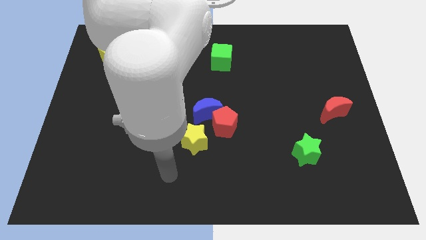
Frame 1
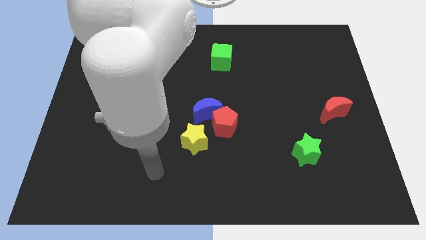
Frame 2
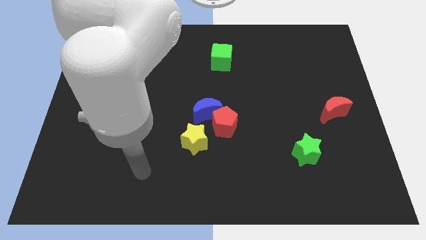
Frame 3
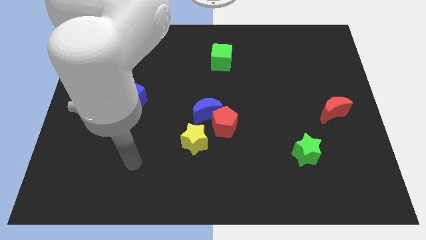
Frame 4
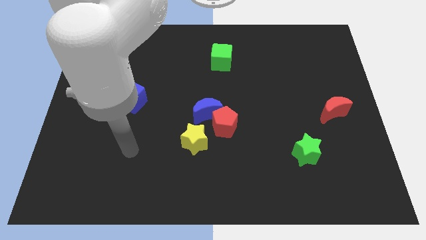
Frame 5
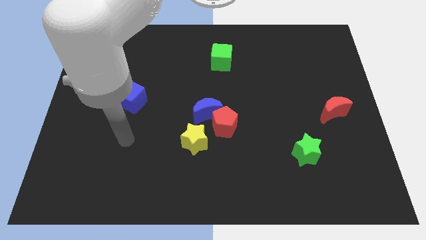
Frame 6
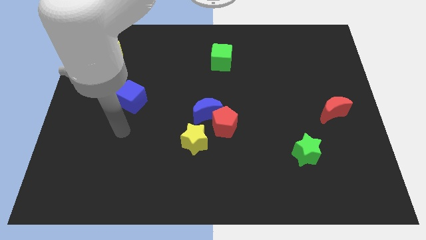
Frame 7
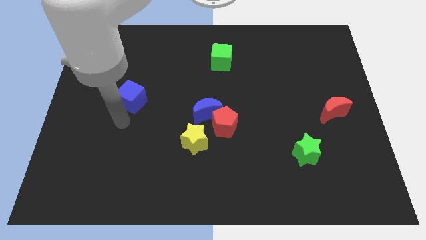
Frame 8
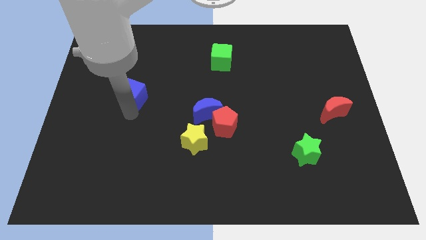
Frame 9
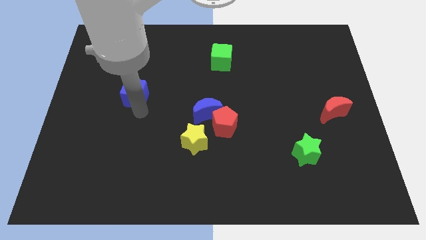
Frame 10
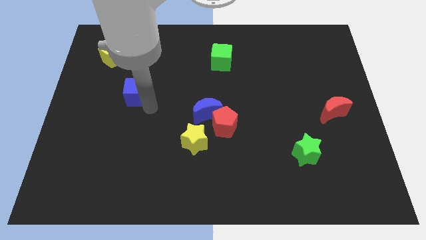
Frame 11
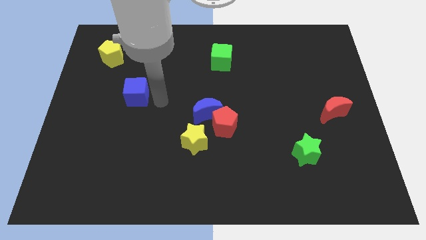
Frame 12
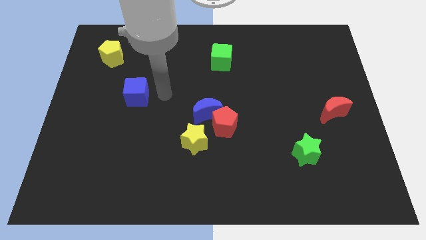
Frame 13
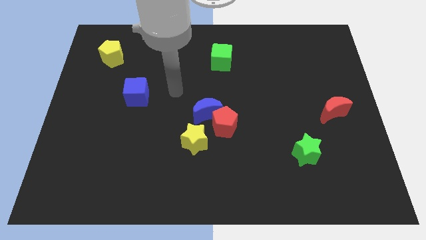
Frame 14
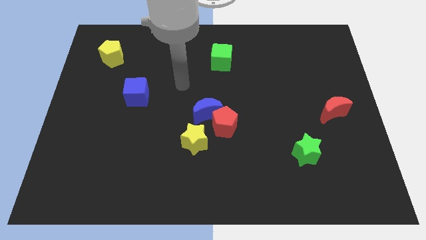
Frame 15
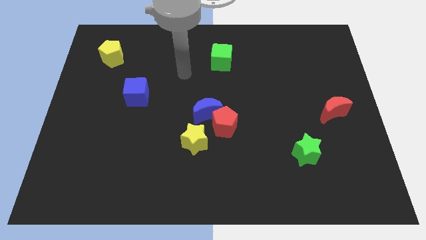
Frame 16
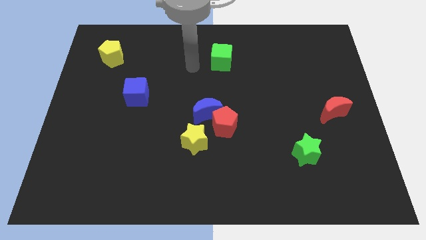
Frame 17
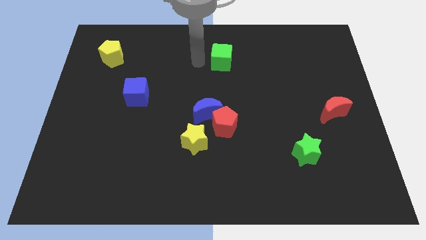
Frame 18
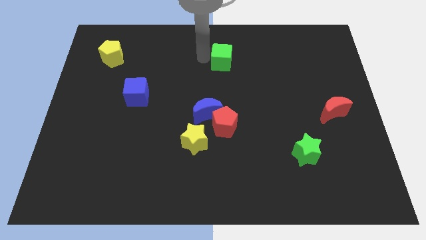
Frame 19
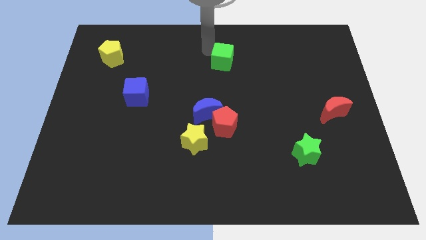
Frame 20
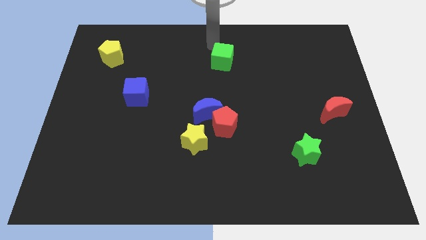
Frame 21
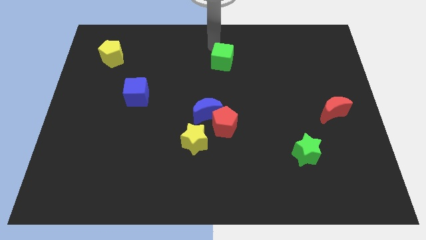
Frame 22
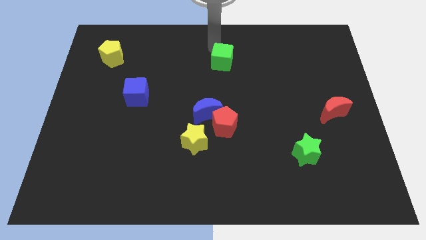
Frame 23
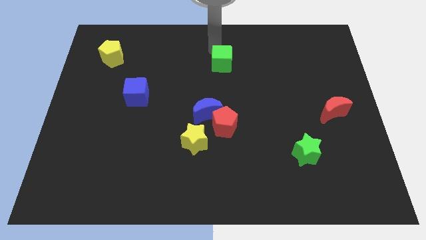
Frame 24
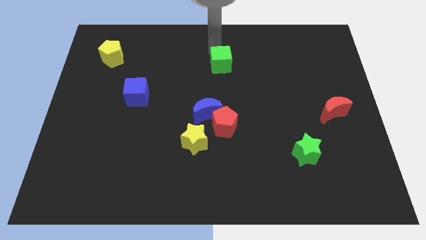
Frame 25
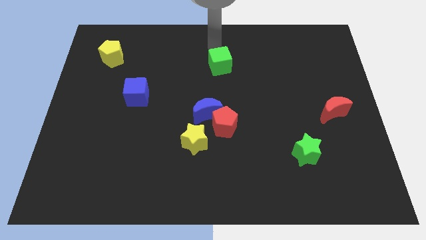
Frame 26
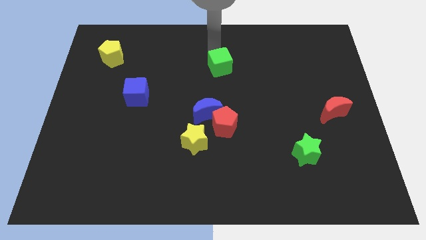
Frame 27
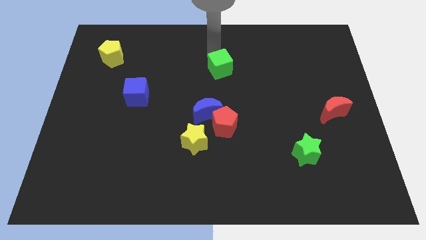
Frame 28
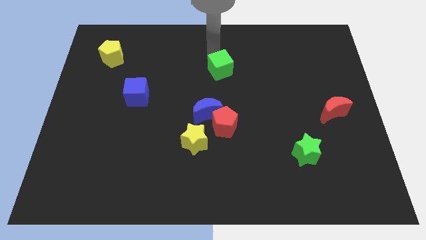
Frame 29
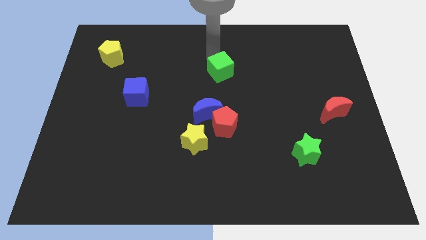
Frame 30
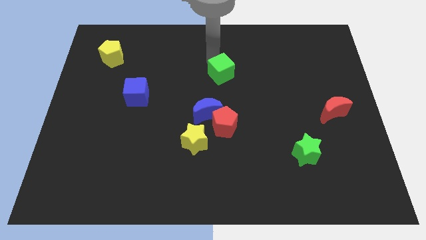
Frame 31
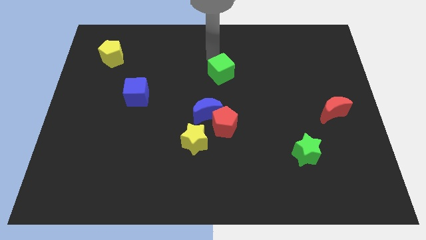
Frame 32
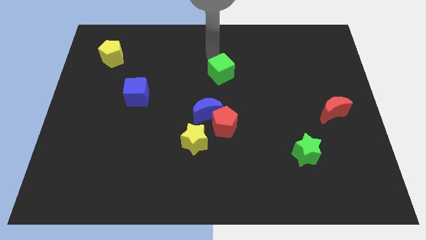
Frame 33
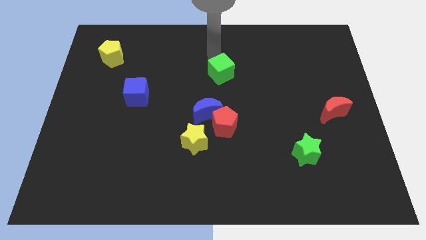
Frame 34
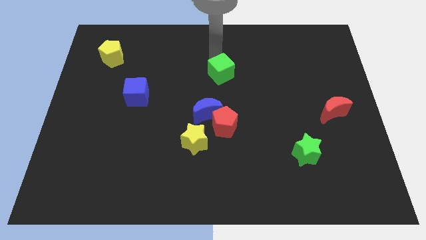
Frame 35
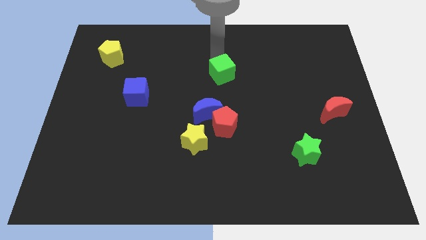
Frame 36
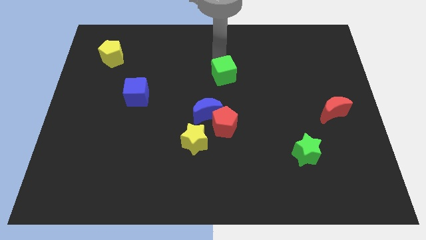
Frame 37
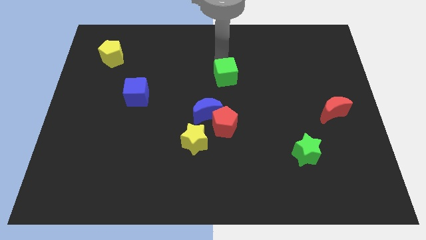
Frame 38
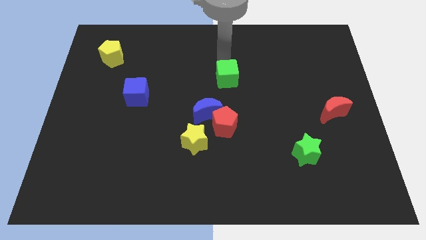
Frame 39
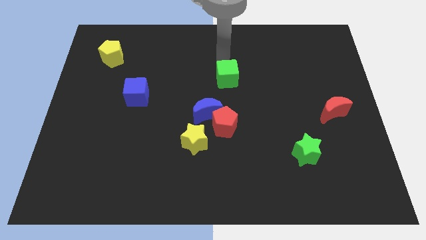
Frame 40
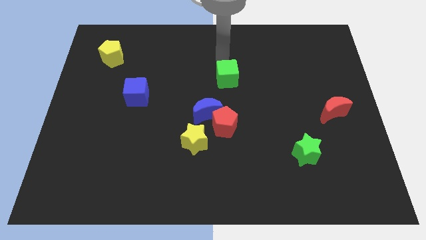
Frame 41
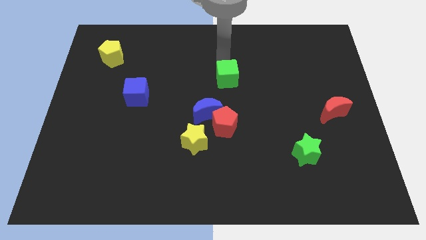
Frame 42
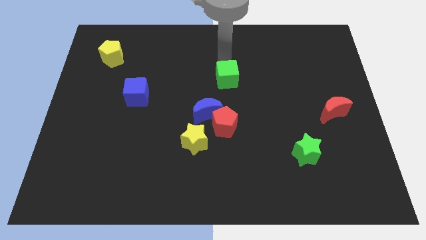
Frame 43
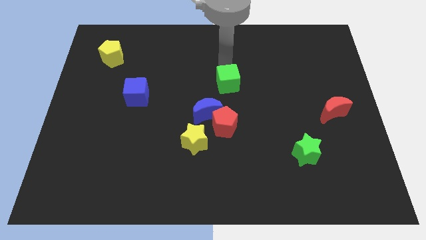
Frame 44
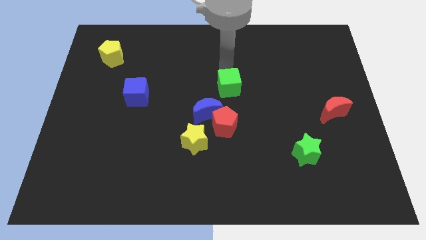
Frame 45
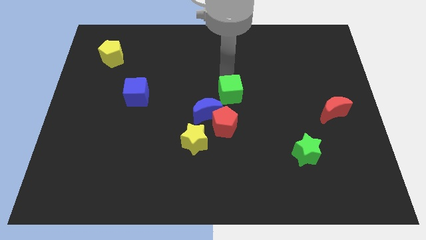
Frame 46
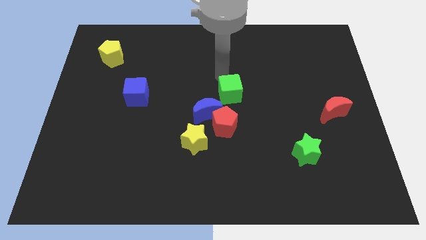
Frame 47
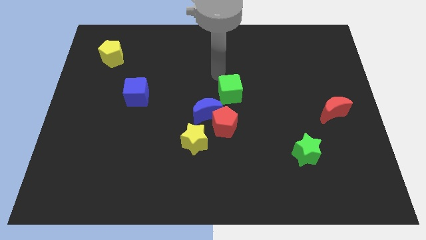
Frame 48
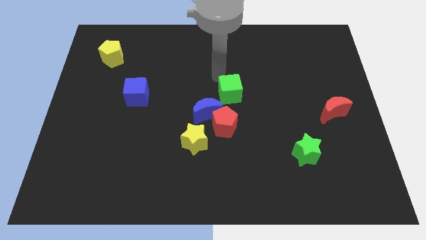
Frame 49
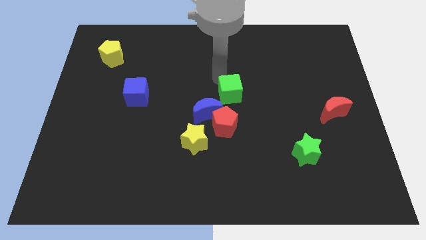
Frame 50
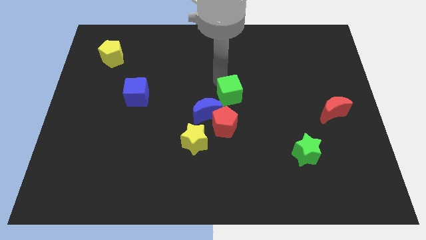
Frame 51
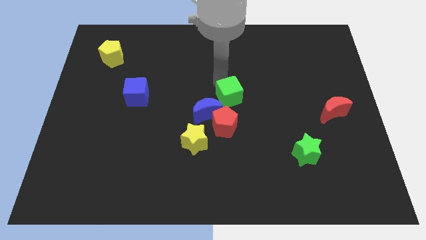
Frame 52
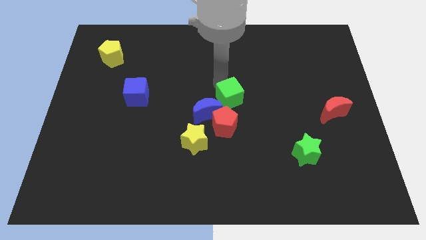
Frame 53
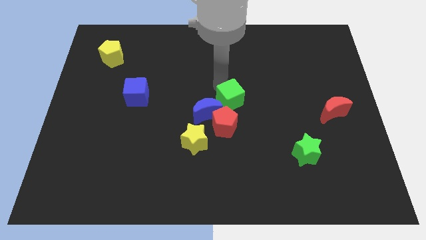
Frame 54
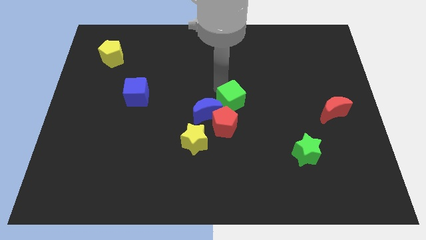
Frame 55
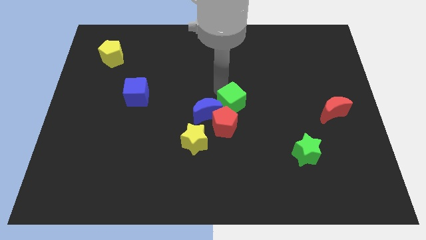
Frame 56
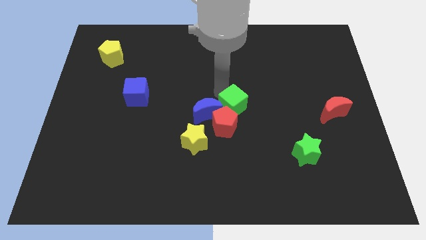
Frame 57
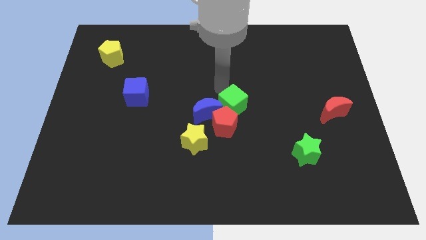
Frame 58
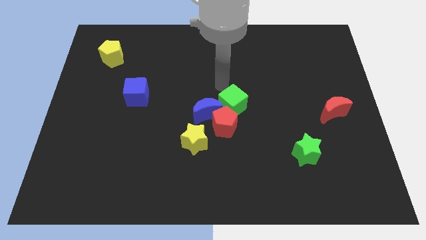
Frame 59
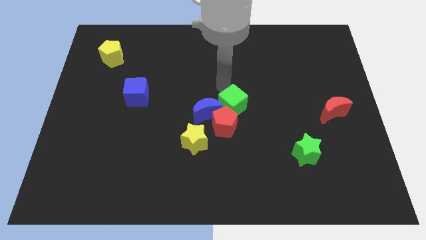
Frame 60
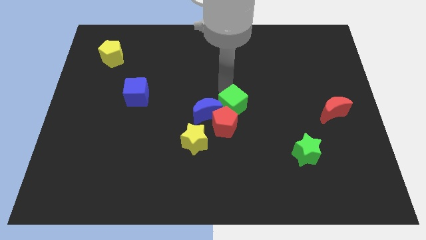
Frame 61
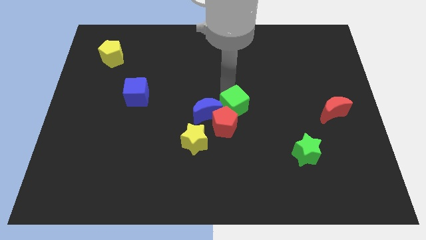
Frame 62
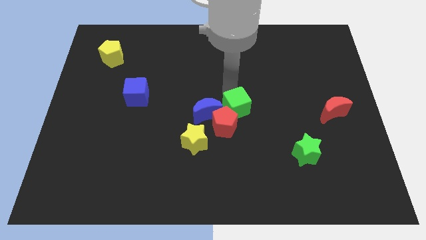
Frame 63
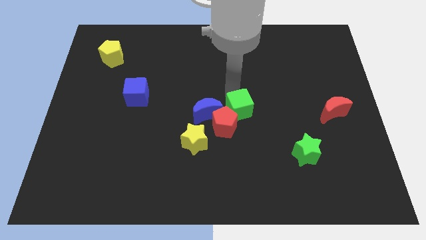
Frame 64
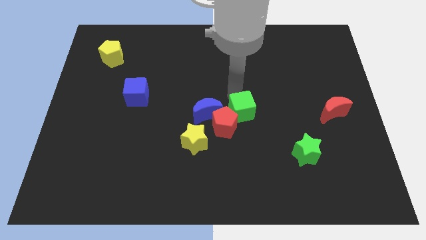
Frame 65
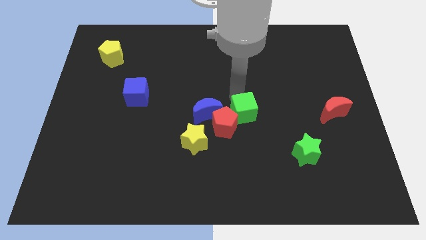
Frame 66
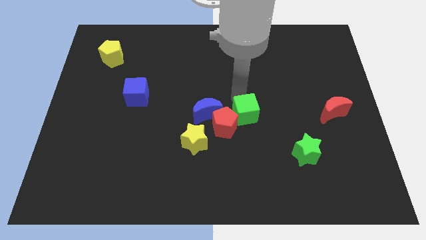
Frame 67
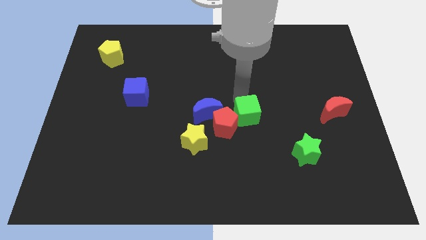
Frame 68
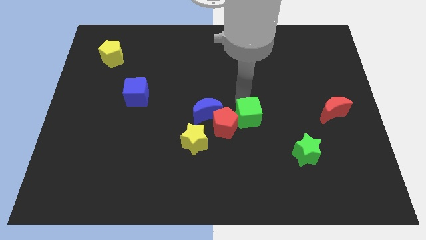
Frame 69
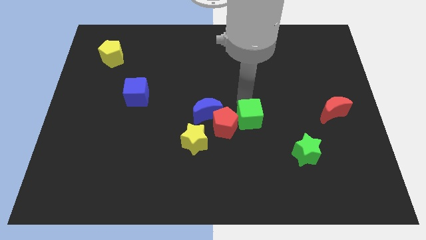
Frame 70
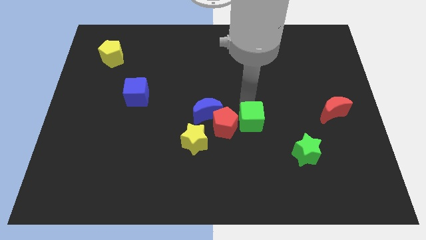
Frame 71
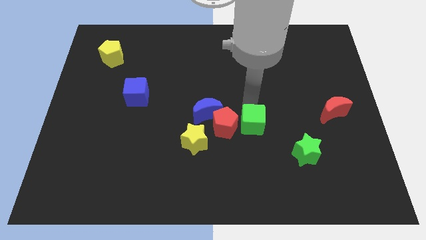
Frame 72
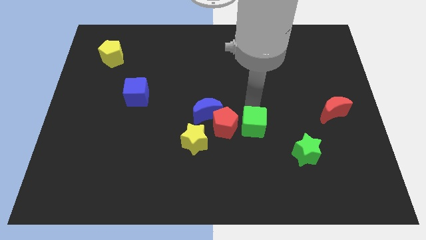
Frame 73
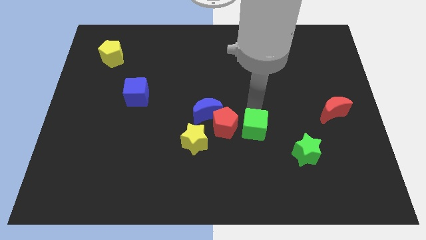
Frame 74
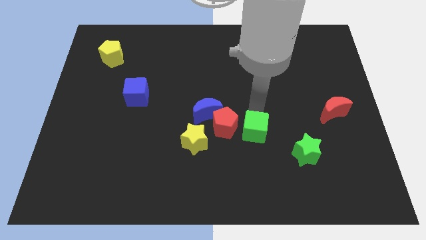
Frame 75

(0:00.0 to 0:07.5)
push the green cube downwards

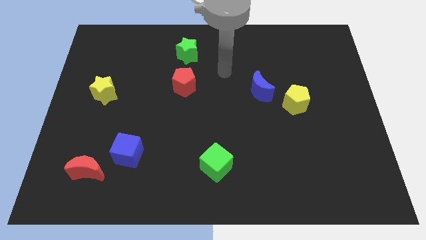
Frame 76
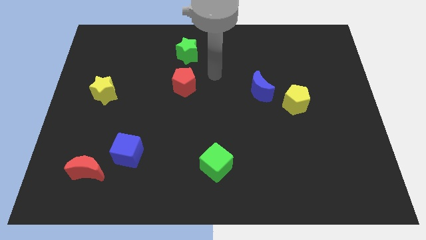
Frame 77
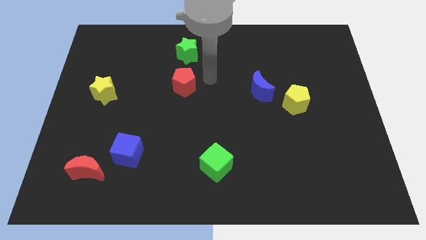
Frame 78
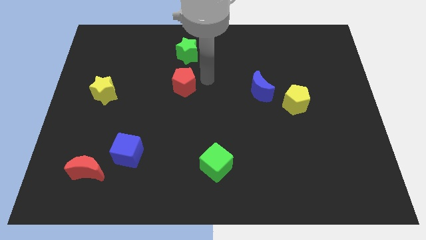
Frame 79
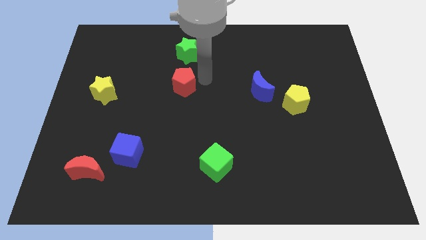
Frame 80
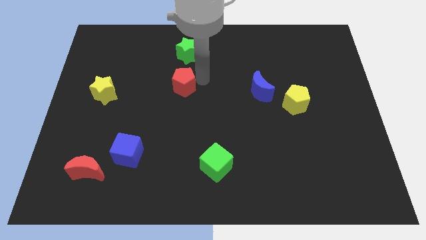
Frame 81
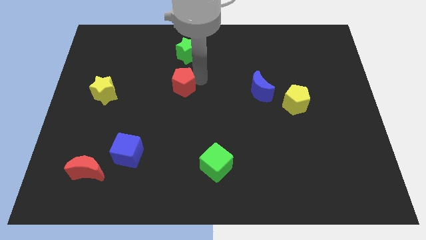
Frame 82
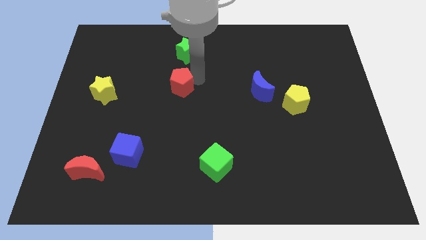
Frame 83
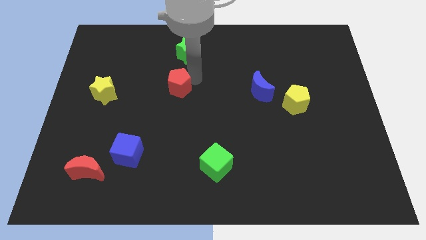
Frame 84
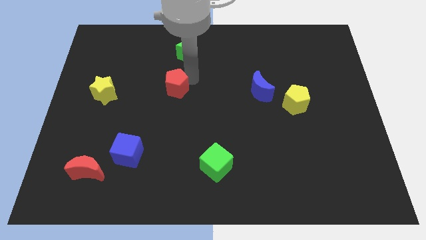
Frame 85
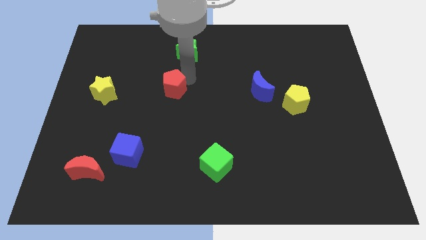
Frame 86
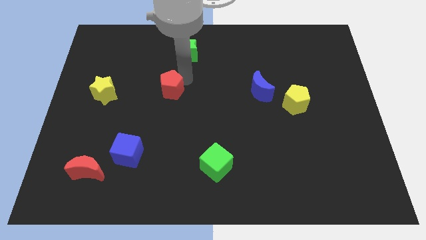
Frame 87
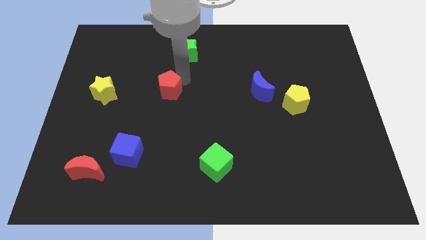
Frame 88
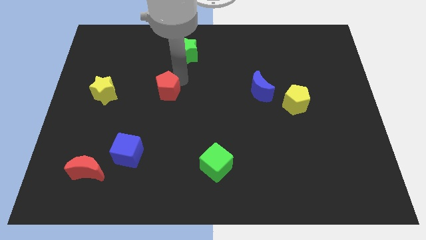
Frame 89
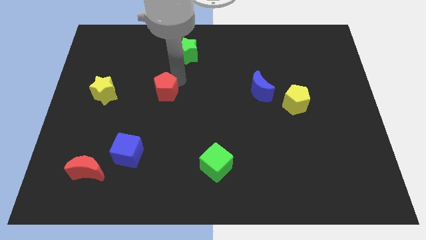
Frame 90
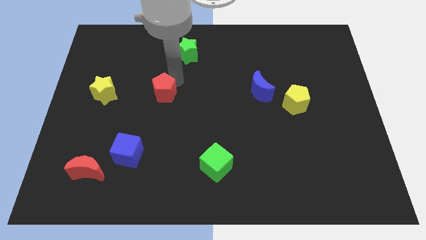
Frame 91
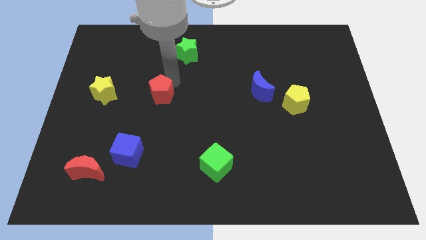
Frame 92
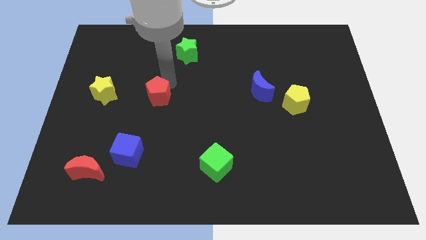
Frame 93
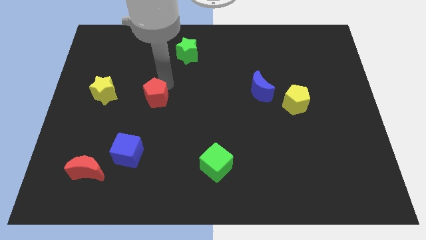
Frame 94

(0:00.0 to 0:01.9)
move the red pentagon diagonally downwards and left somewhat
